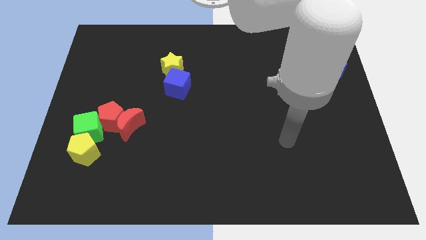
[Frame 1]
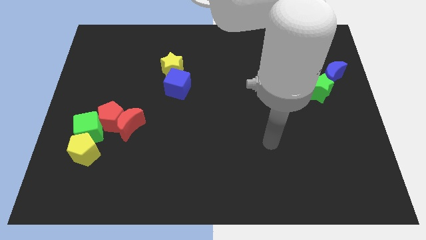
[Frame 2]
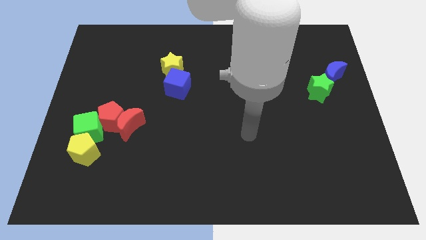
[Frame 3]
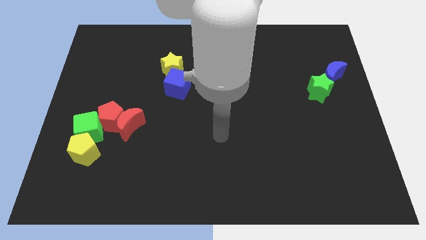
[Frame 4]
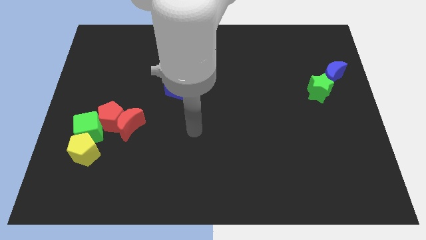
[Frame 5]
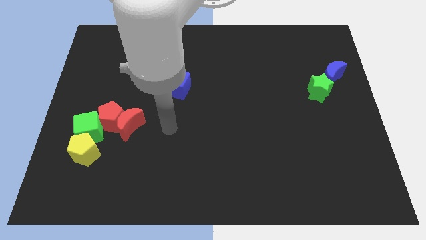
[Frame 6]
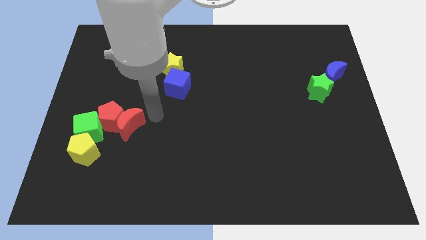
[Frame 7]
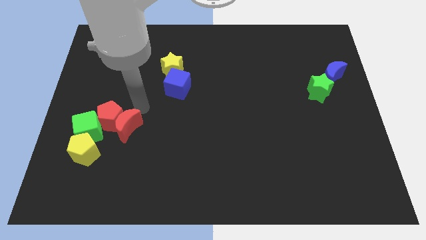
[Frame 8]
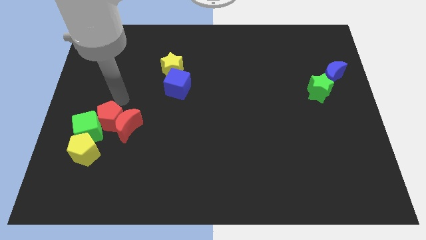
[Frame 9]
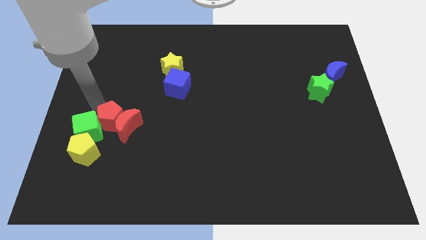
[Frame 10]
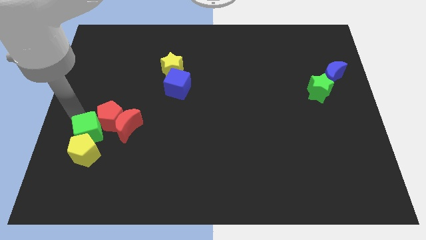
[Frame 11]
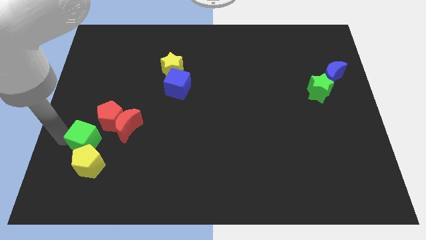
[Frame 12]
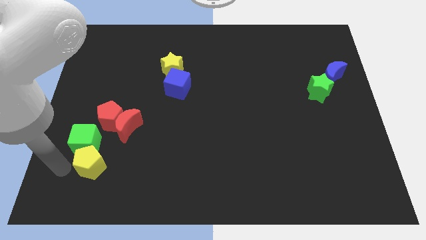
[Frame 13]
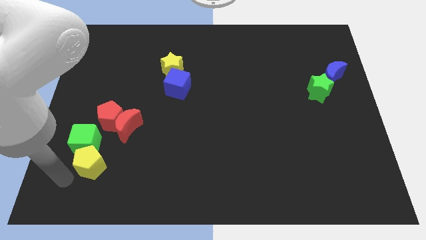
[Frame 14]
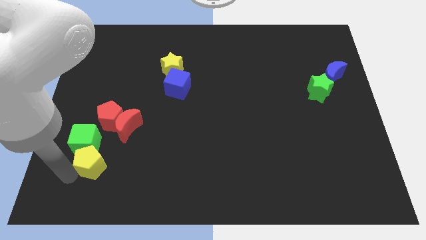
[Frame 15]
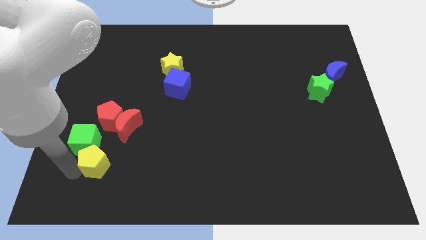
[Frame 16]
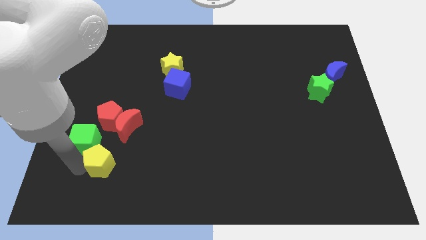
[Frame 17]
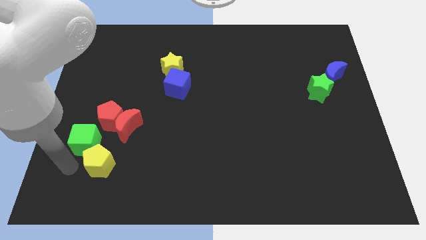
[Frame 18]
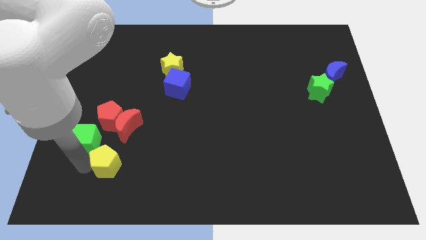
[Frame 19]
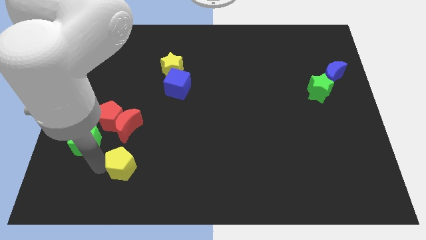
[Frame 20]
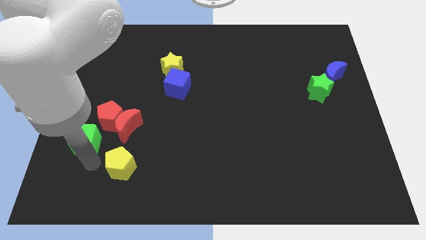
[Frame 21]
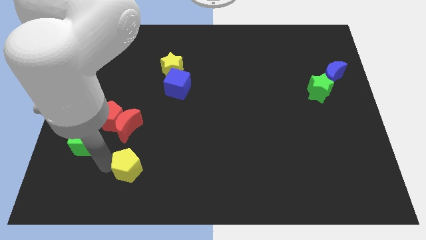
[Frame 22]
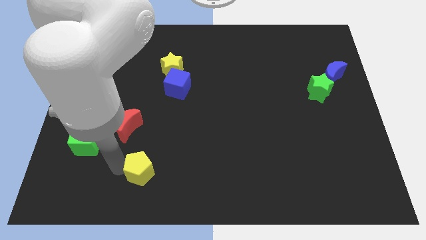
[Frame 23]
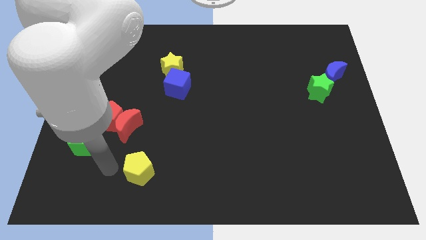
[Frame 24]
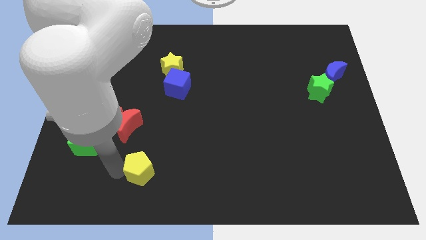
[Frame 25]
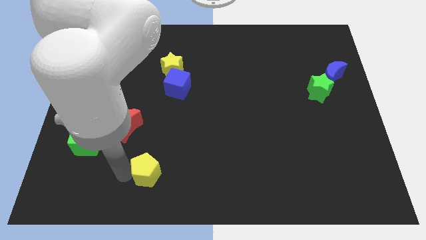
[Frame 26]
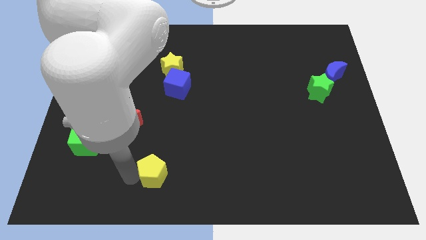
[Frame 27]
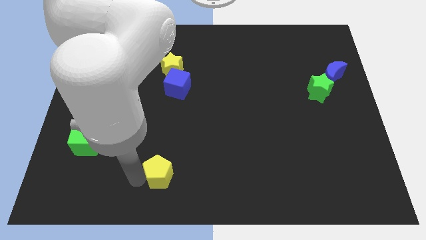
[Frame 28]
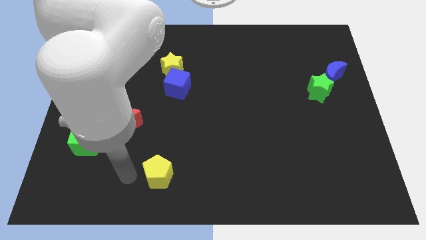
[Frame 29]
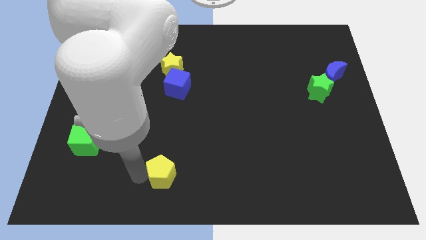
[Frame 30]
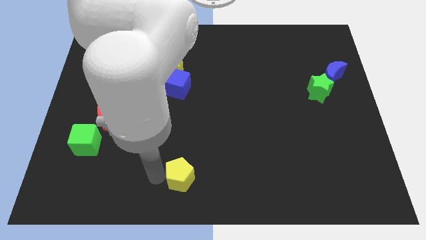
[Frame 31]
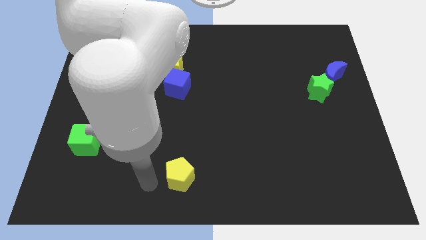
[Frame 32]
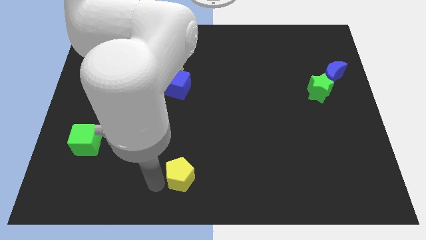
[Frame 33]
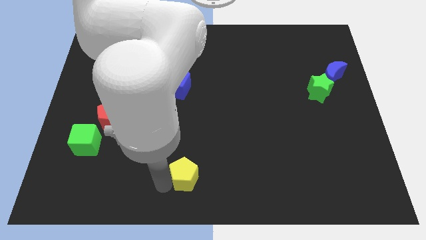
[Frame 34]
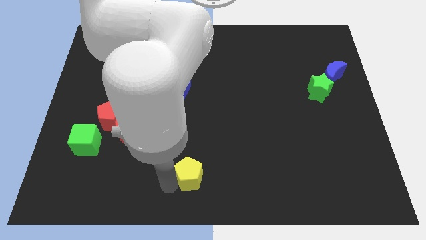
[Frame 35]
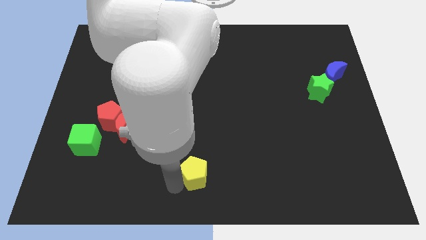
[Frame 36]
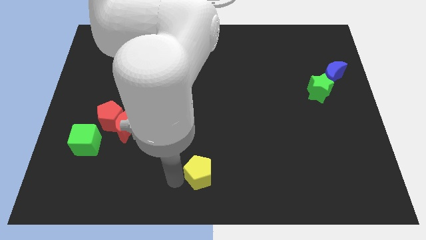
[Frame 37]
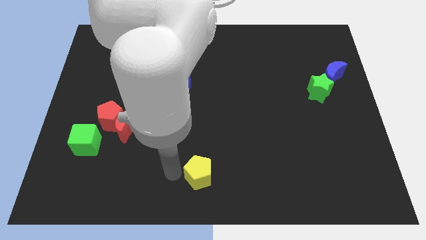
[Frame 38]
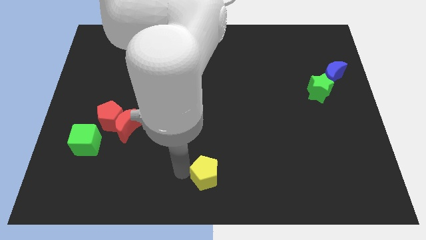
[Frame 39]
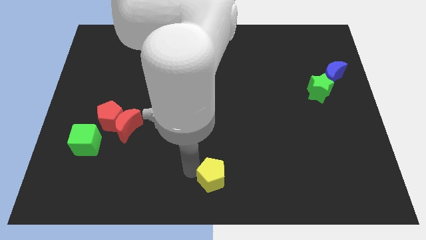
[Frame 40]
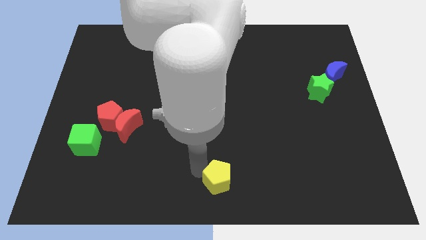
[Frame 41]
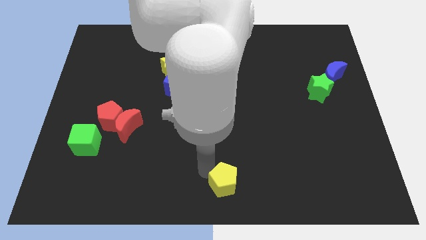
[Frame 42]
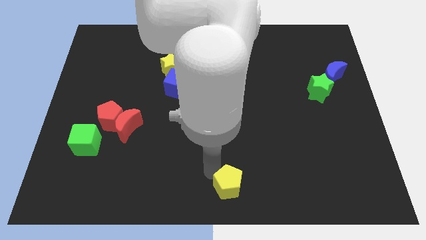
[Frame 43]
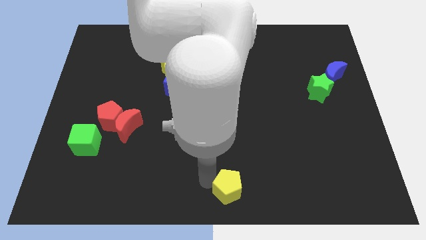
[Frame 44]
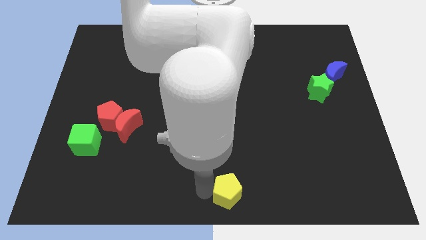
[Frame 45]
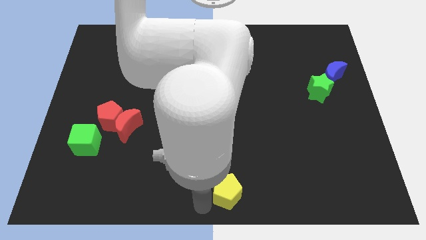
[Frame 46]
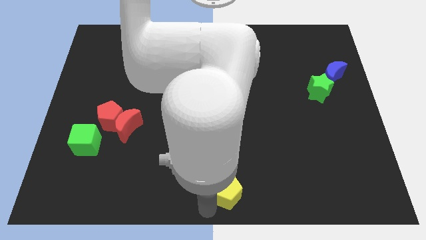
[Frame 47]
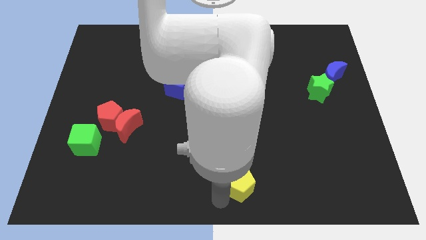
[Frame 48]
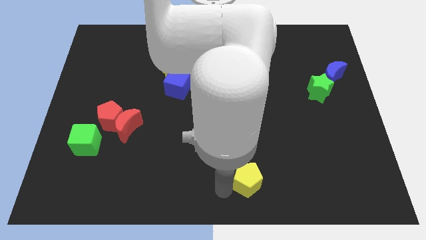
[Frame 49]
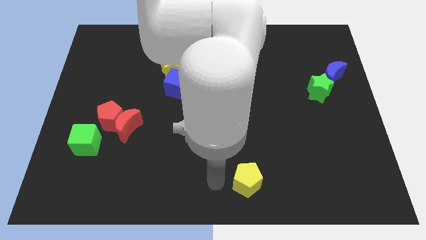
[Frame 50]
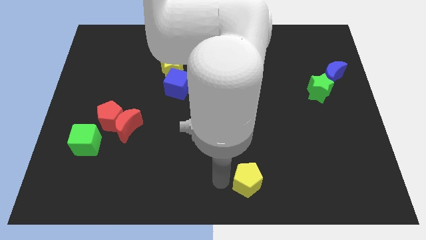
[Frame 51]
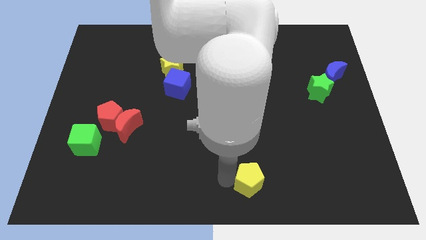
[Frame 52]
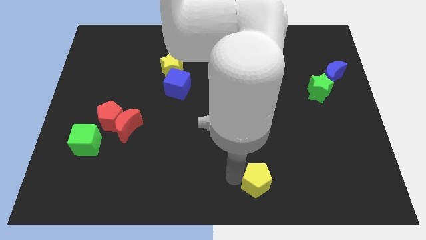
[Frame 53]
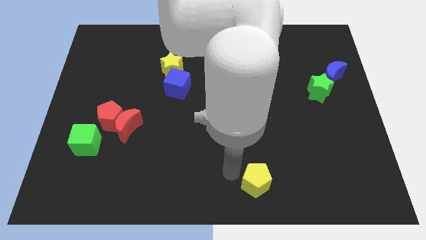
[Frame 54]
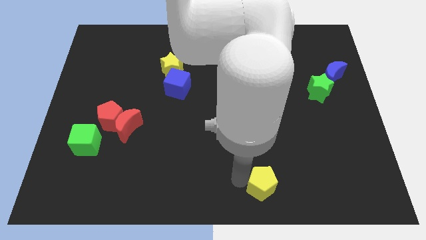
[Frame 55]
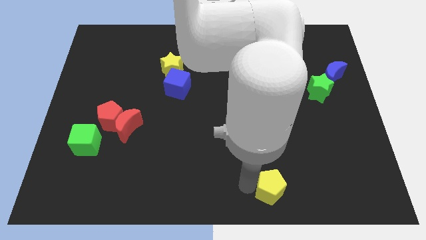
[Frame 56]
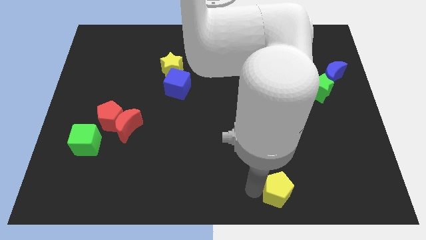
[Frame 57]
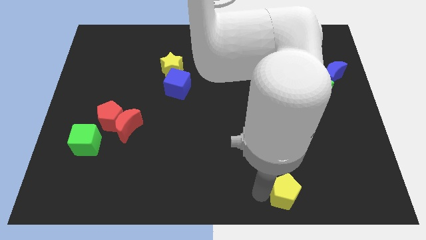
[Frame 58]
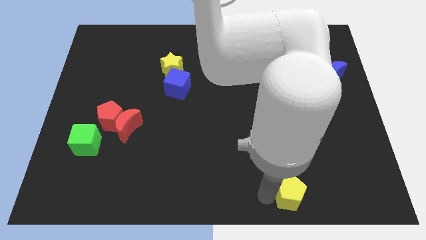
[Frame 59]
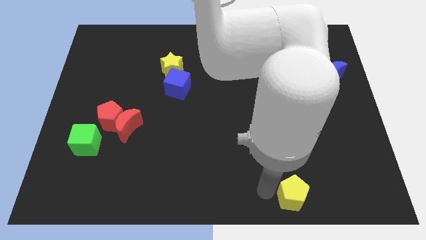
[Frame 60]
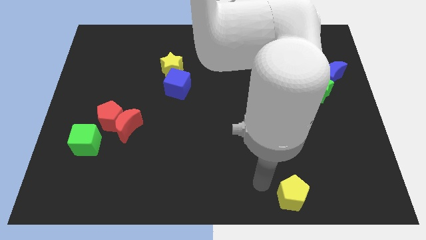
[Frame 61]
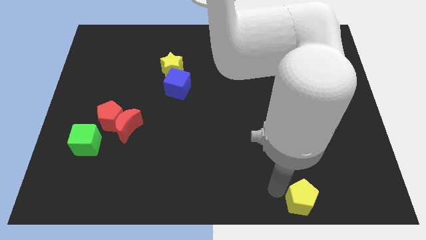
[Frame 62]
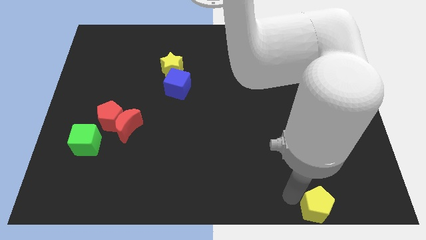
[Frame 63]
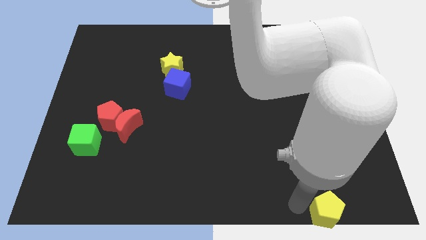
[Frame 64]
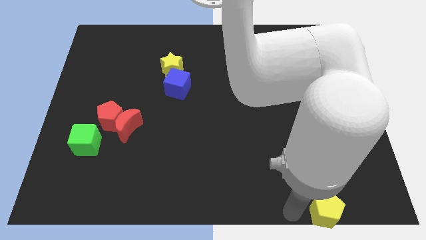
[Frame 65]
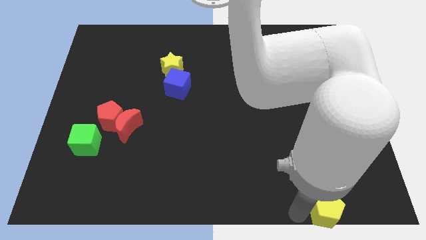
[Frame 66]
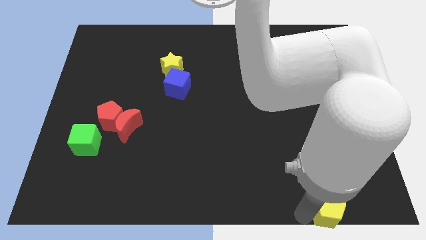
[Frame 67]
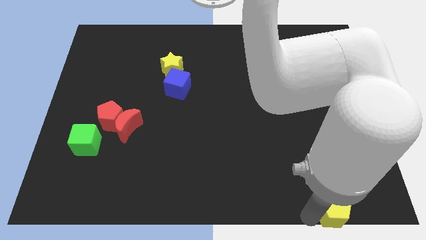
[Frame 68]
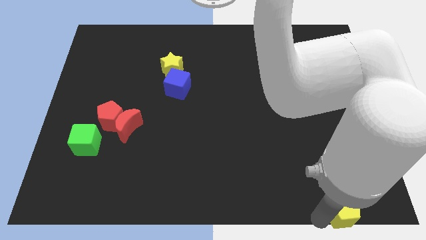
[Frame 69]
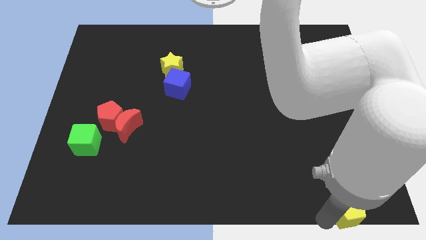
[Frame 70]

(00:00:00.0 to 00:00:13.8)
move the yellow pentagon to the bottom right
